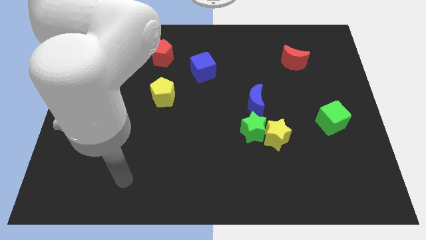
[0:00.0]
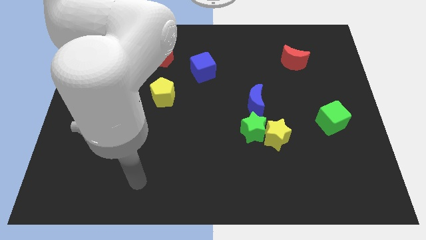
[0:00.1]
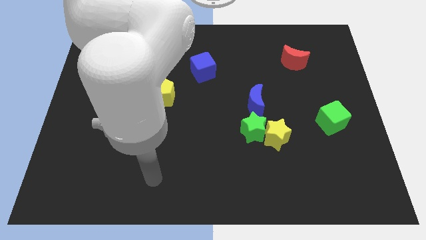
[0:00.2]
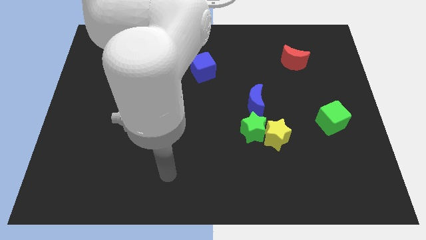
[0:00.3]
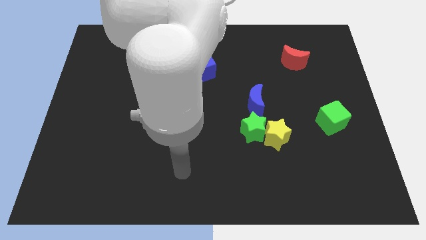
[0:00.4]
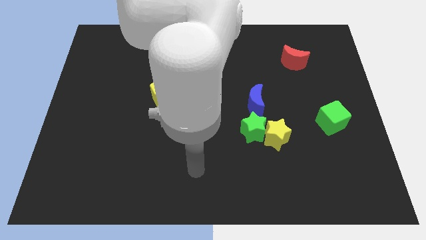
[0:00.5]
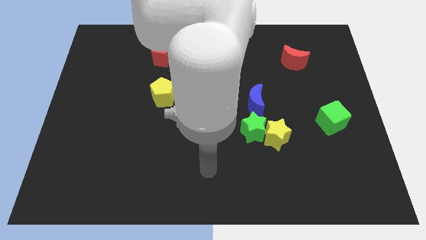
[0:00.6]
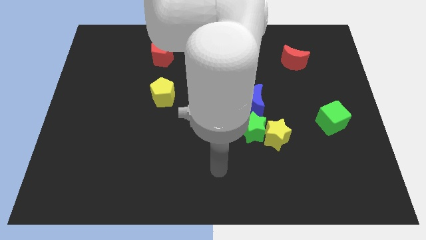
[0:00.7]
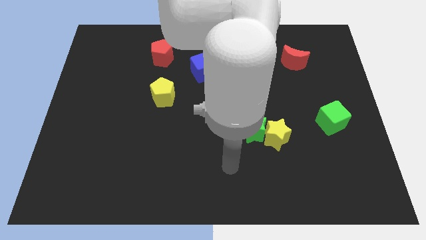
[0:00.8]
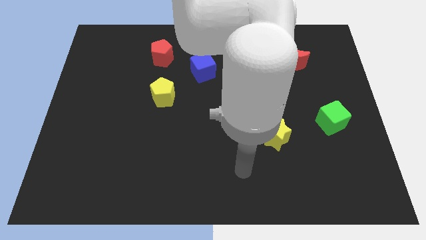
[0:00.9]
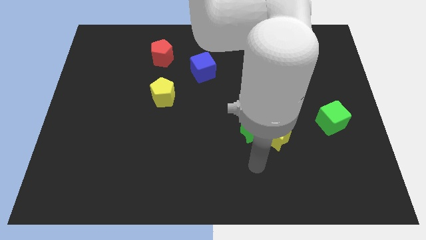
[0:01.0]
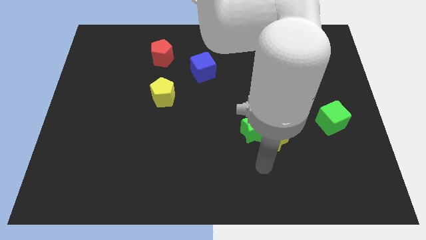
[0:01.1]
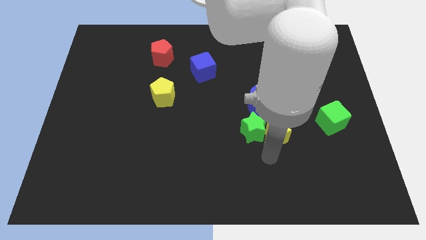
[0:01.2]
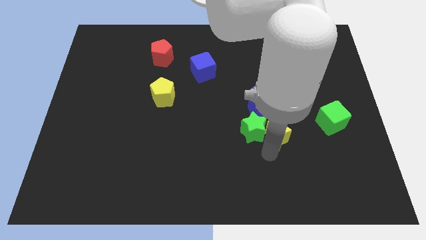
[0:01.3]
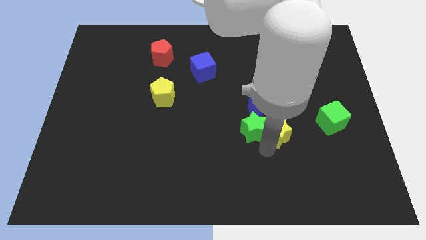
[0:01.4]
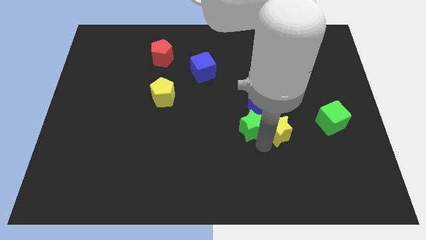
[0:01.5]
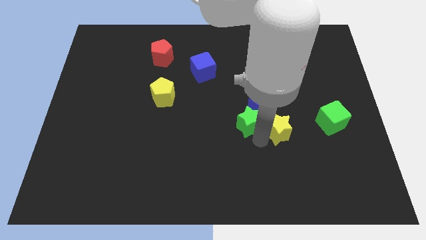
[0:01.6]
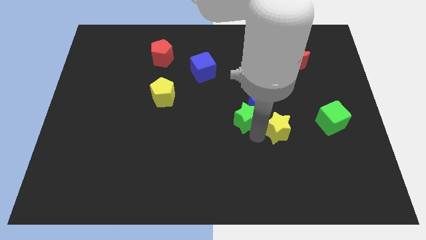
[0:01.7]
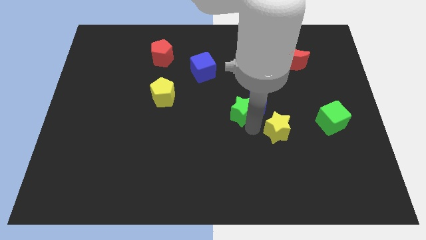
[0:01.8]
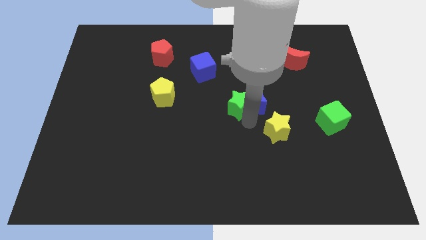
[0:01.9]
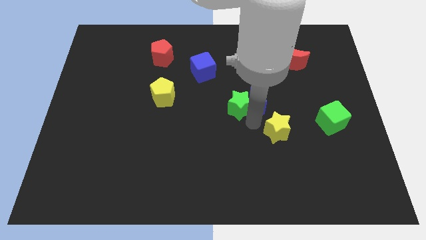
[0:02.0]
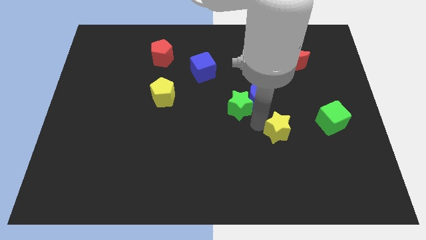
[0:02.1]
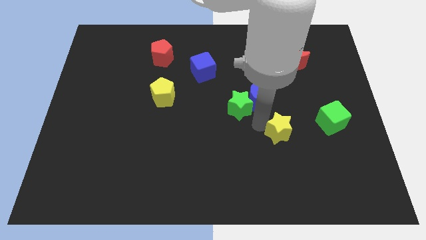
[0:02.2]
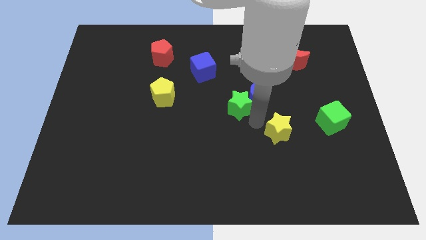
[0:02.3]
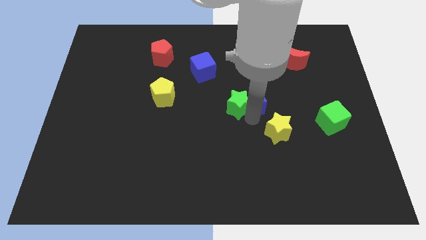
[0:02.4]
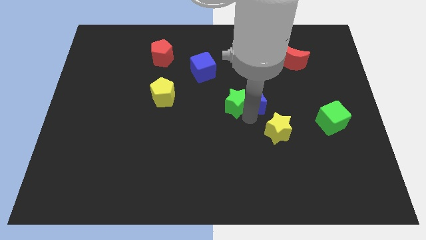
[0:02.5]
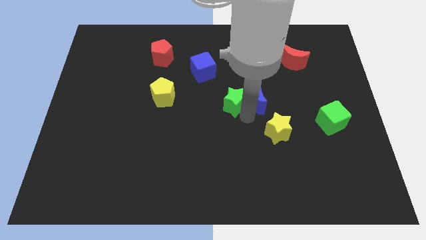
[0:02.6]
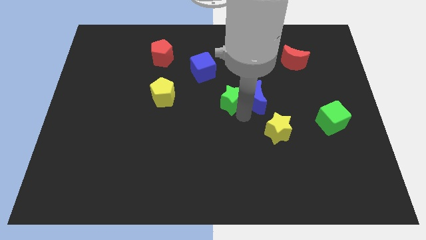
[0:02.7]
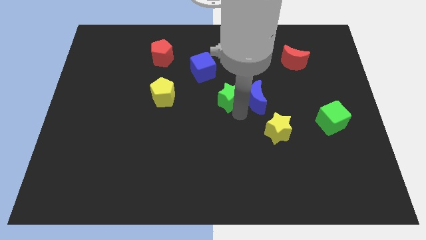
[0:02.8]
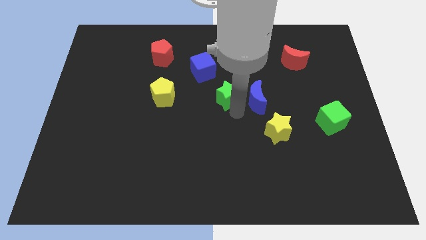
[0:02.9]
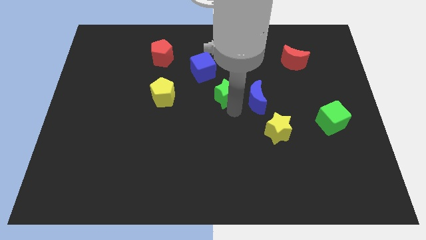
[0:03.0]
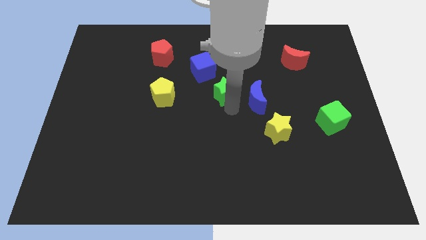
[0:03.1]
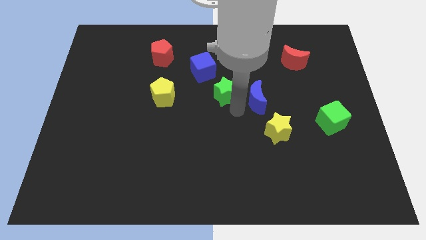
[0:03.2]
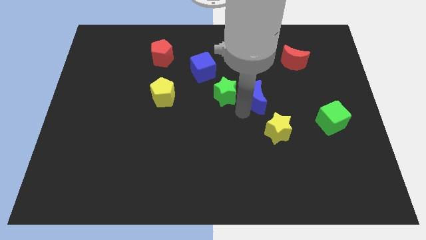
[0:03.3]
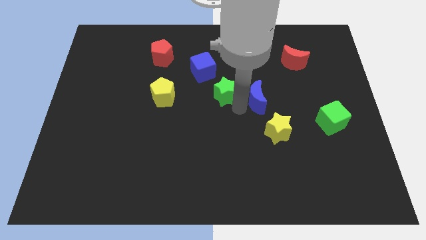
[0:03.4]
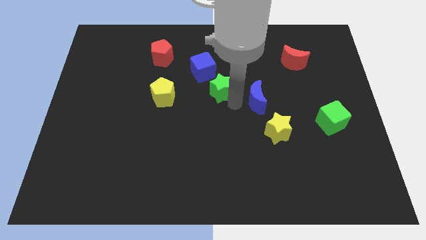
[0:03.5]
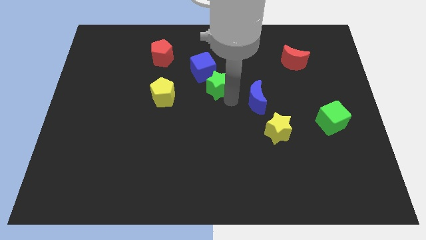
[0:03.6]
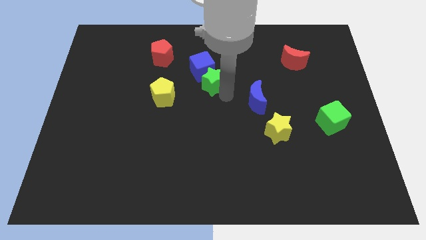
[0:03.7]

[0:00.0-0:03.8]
put the green star close to the blue cube

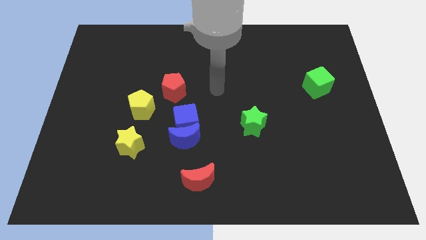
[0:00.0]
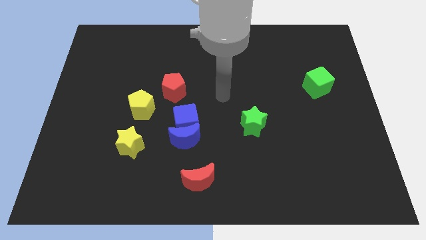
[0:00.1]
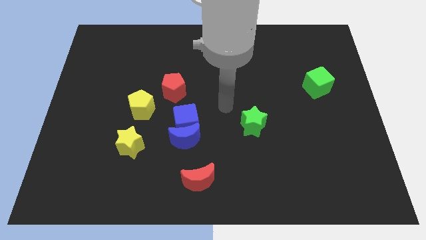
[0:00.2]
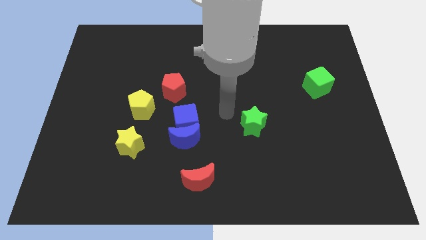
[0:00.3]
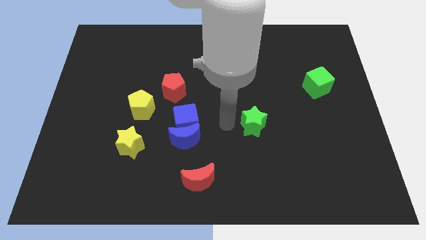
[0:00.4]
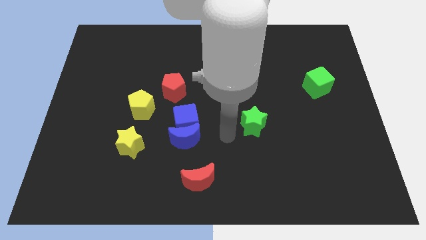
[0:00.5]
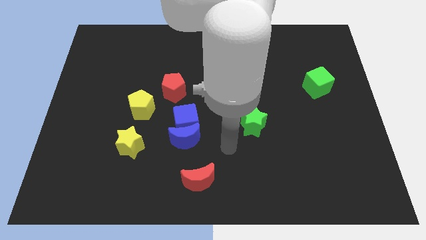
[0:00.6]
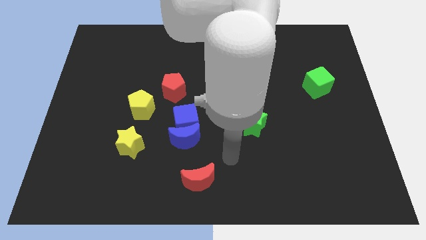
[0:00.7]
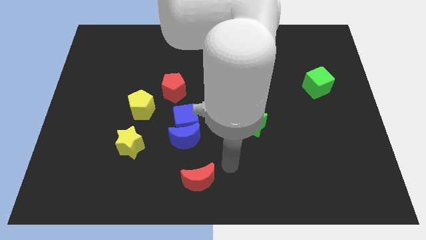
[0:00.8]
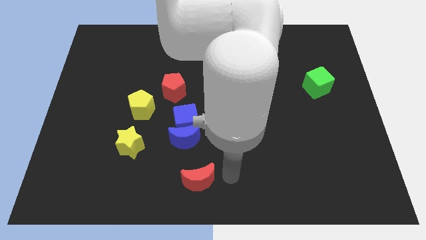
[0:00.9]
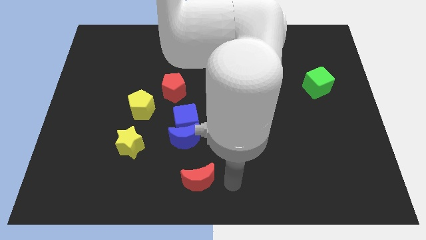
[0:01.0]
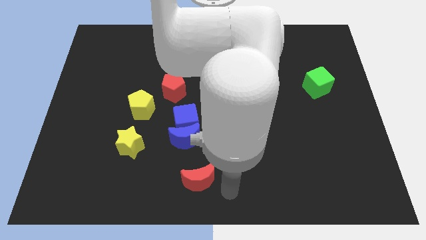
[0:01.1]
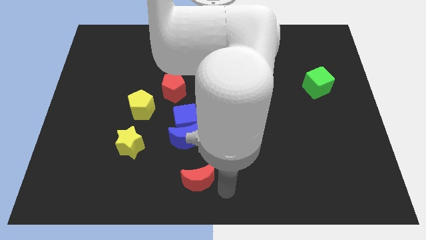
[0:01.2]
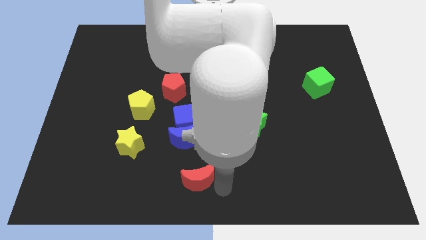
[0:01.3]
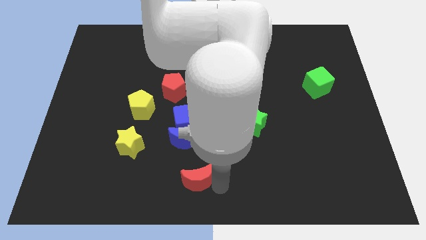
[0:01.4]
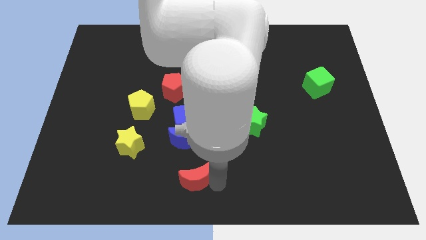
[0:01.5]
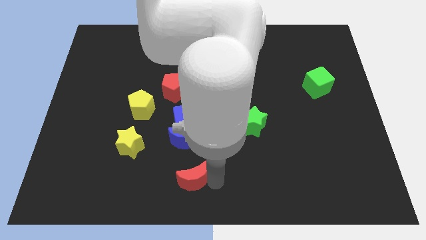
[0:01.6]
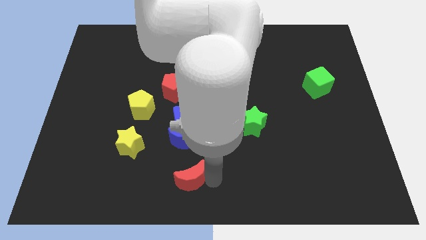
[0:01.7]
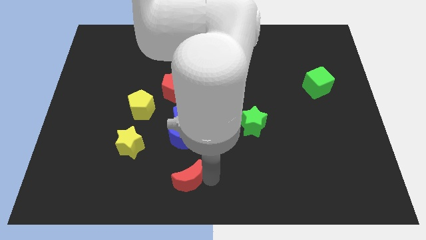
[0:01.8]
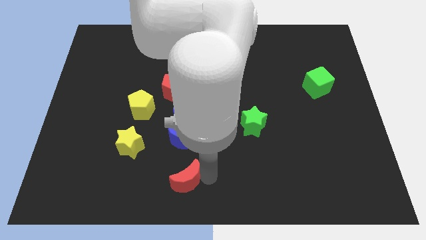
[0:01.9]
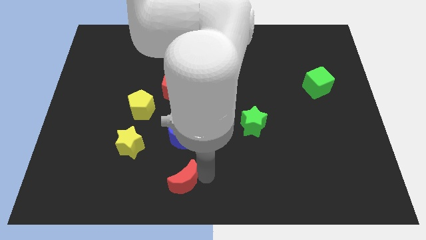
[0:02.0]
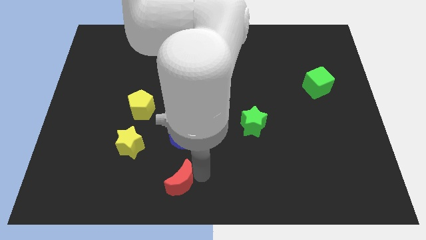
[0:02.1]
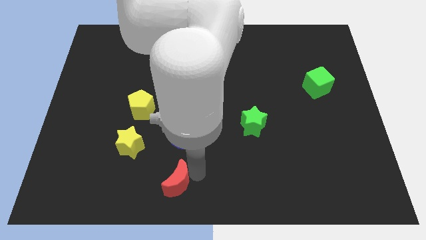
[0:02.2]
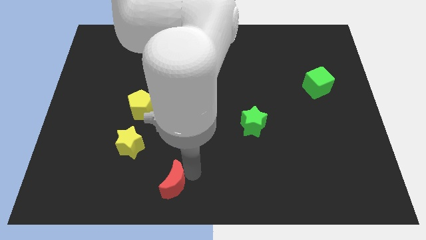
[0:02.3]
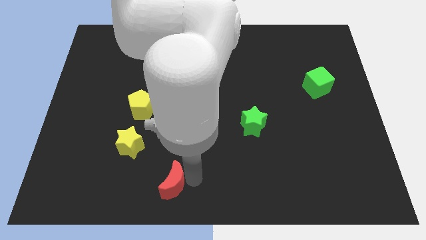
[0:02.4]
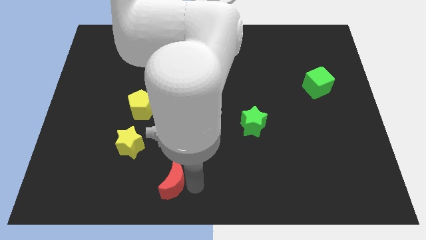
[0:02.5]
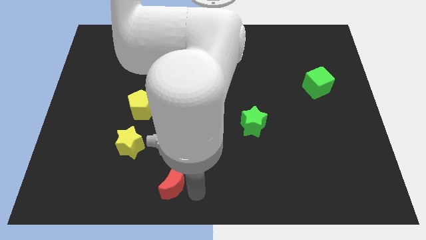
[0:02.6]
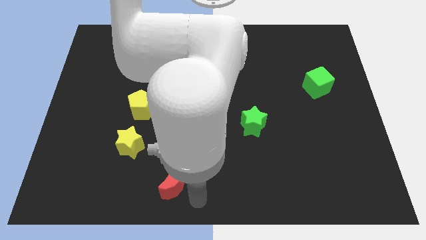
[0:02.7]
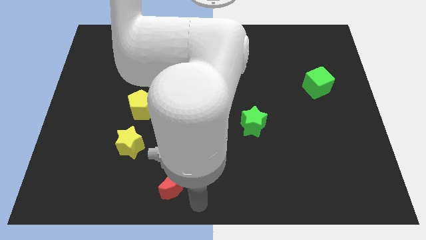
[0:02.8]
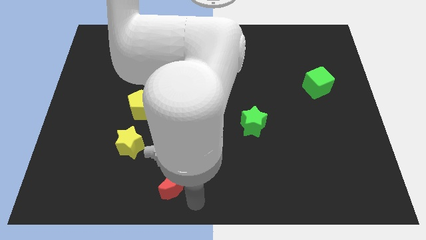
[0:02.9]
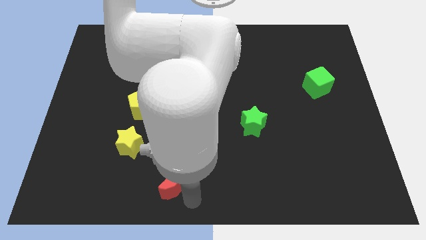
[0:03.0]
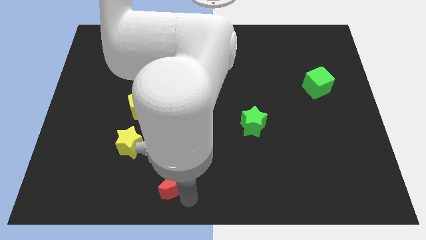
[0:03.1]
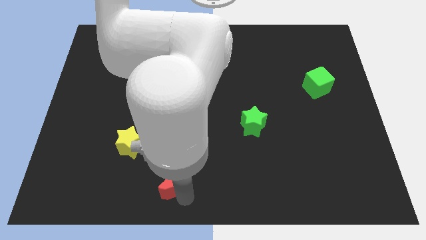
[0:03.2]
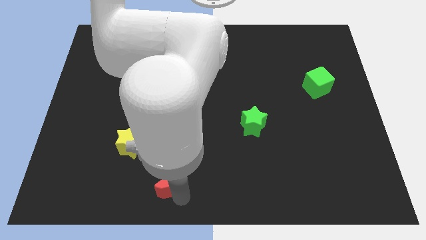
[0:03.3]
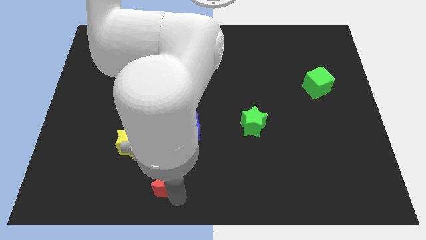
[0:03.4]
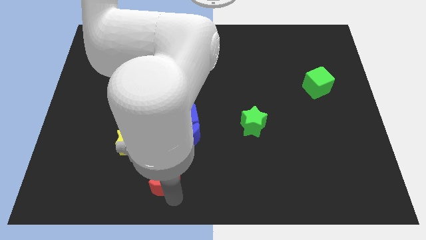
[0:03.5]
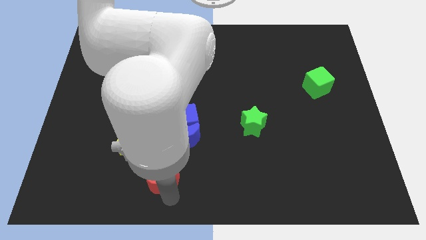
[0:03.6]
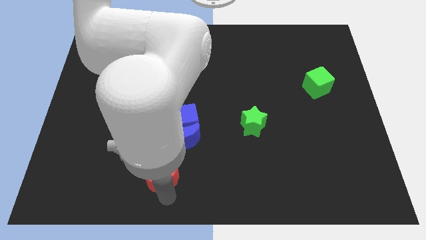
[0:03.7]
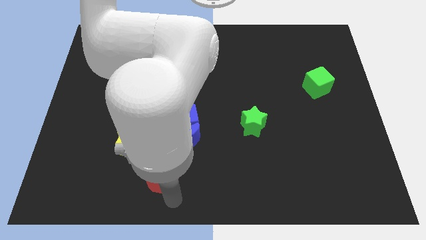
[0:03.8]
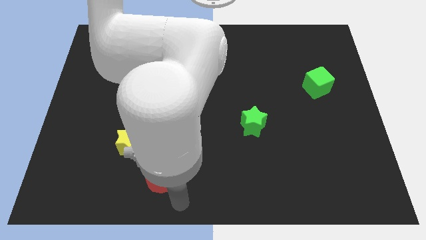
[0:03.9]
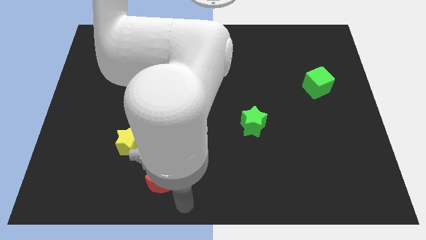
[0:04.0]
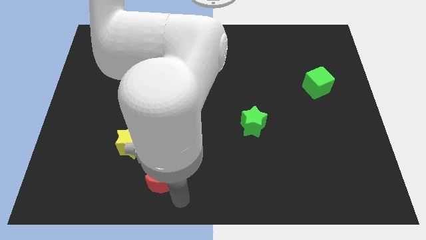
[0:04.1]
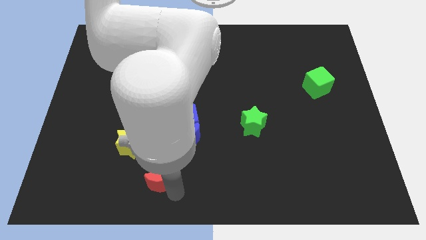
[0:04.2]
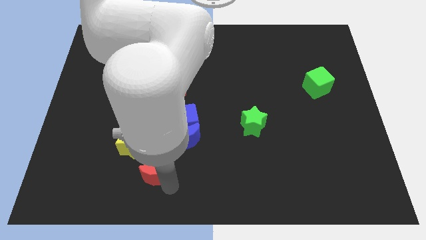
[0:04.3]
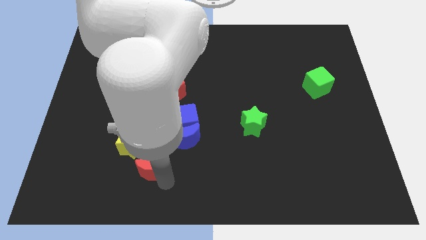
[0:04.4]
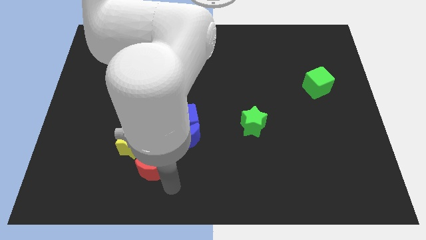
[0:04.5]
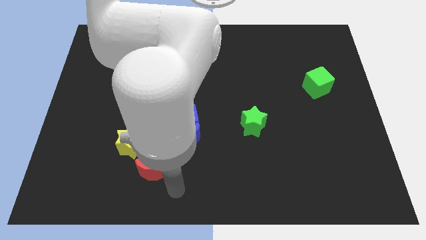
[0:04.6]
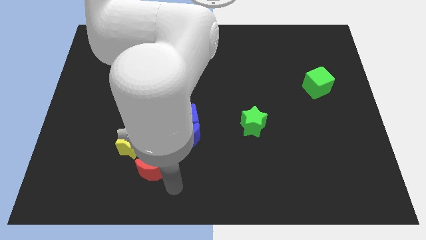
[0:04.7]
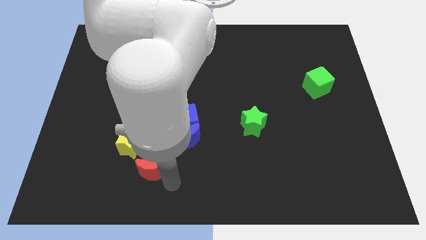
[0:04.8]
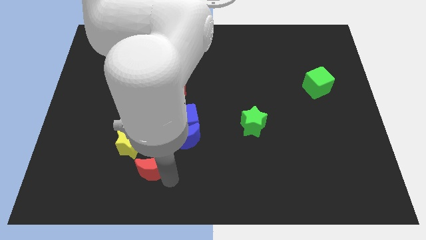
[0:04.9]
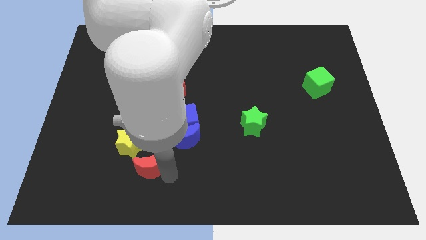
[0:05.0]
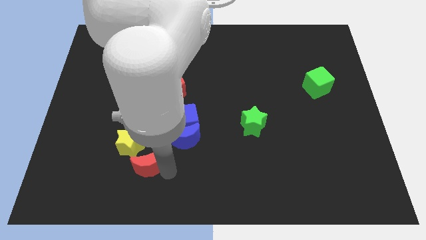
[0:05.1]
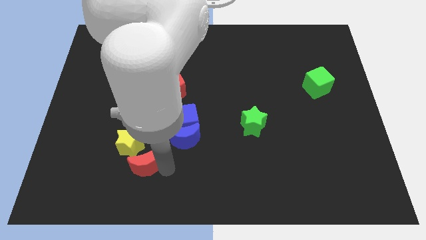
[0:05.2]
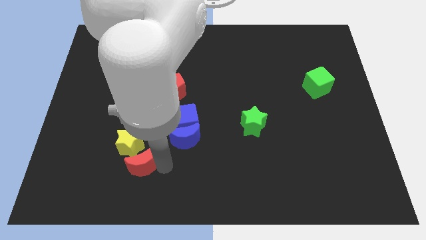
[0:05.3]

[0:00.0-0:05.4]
move the red moon towards the yellow star
